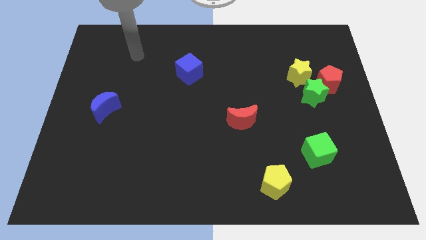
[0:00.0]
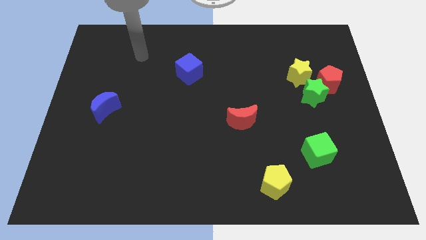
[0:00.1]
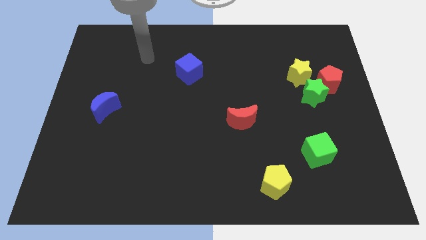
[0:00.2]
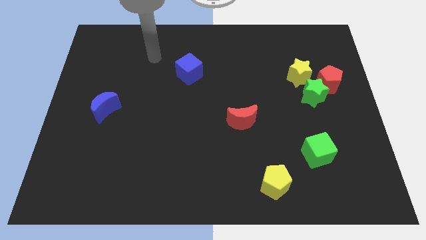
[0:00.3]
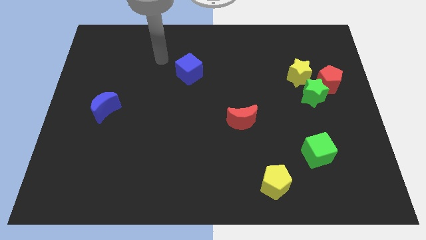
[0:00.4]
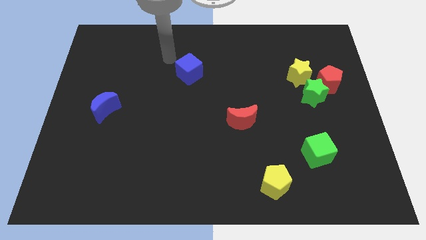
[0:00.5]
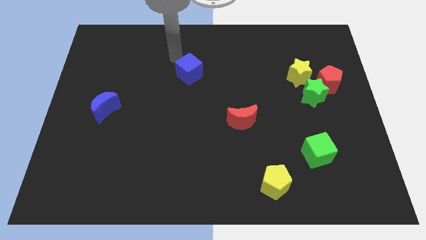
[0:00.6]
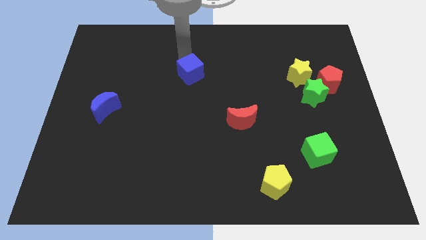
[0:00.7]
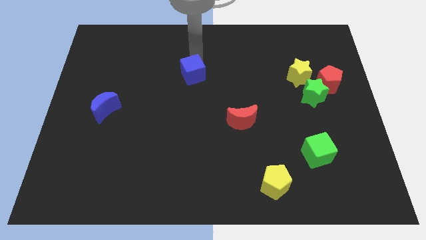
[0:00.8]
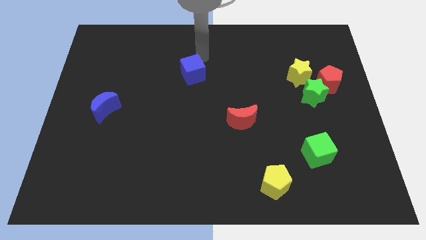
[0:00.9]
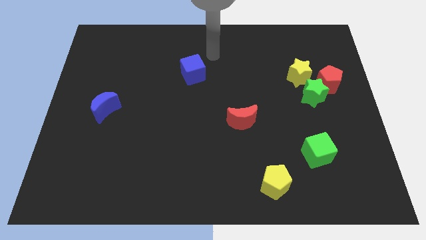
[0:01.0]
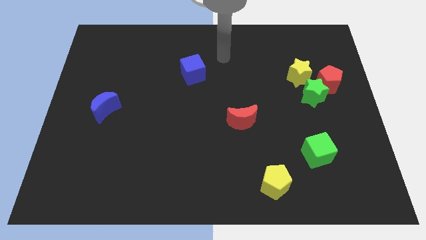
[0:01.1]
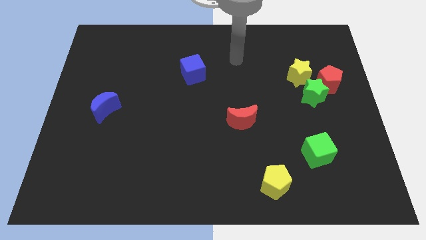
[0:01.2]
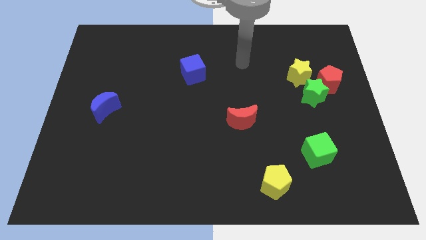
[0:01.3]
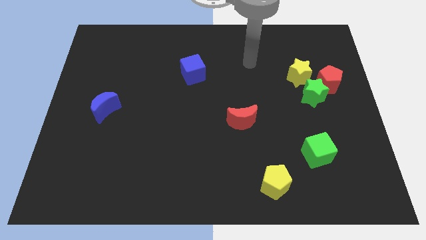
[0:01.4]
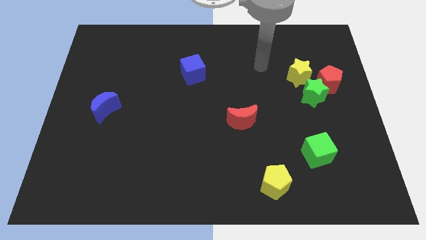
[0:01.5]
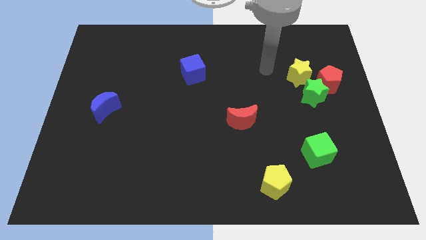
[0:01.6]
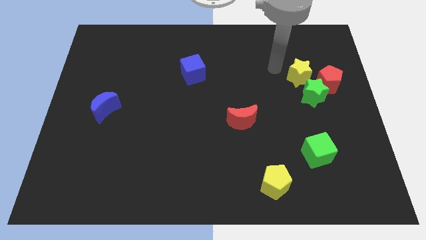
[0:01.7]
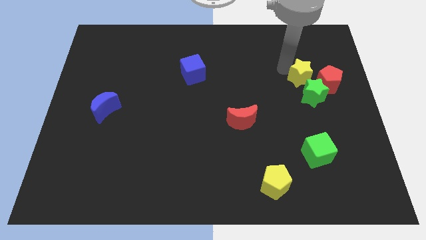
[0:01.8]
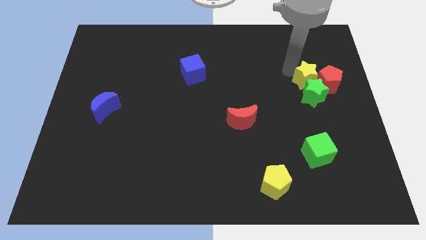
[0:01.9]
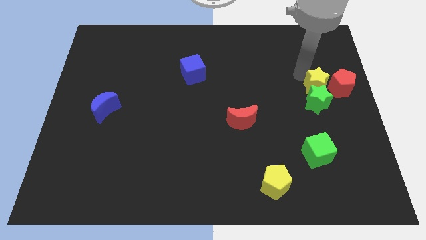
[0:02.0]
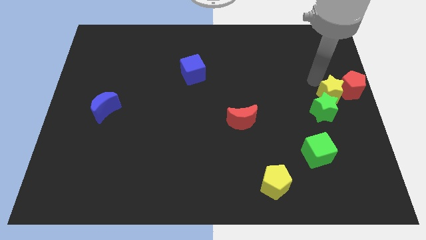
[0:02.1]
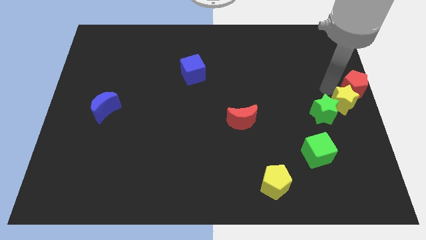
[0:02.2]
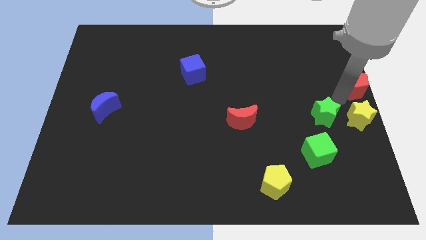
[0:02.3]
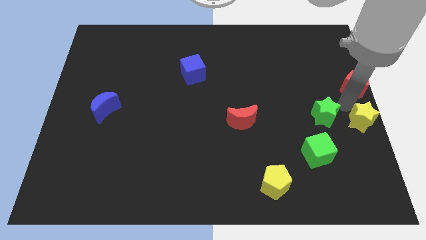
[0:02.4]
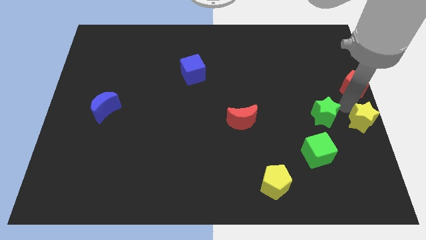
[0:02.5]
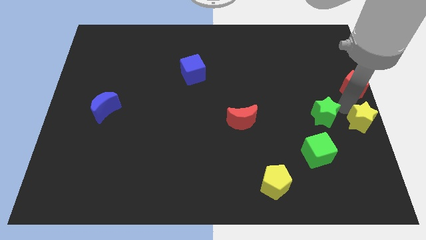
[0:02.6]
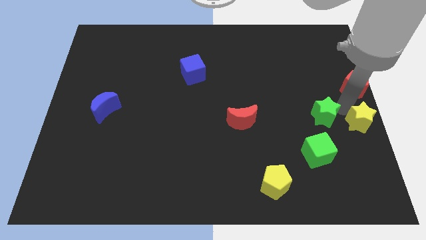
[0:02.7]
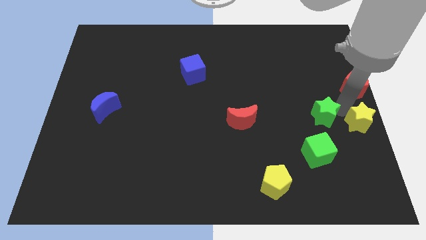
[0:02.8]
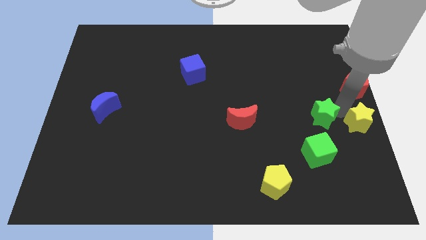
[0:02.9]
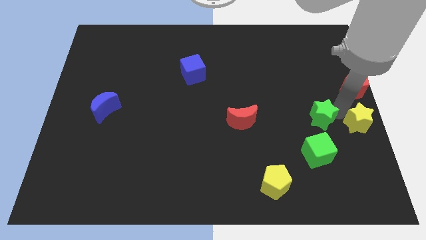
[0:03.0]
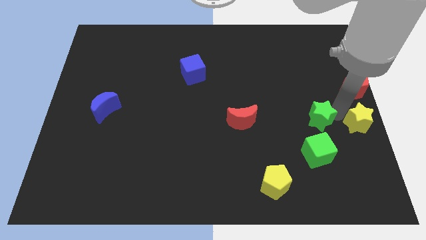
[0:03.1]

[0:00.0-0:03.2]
move the green star away from the red pentagon and yellow star

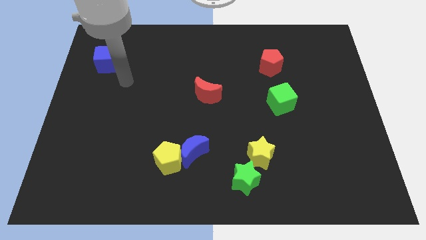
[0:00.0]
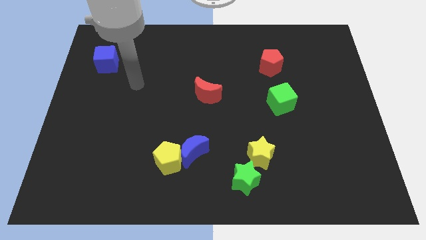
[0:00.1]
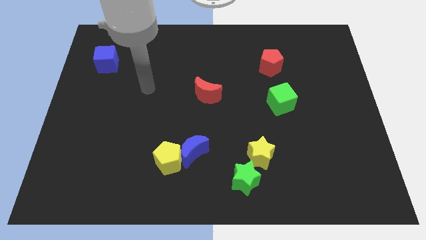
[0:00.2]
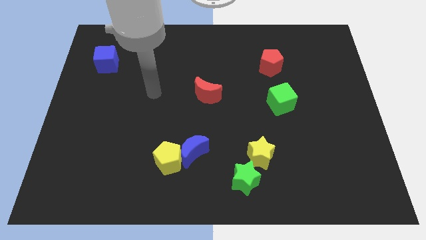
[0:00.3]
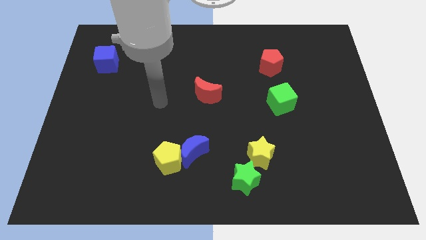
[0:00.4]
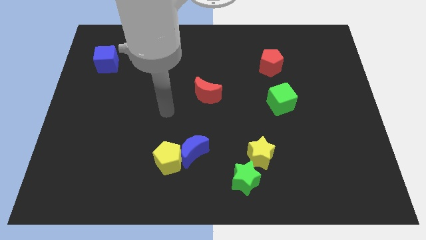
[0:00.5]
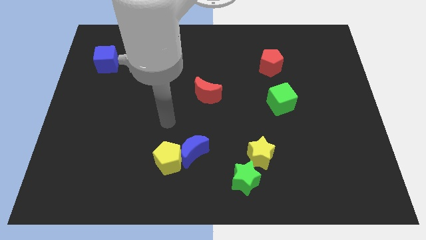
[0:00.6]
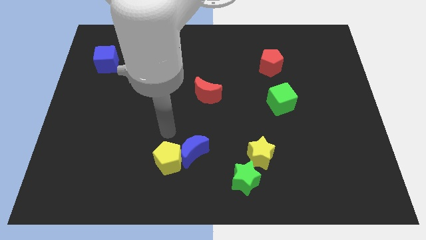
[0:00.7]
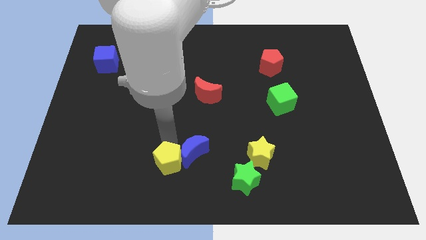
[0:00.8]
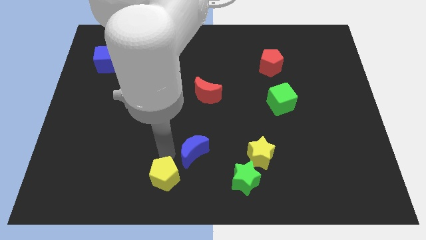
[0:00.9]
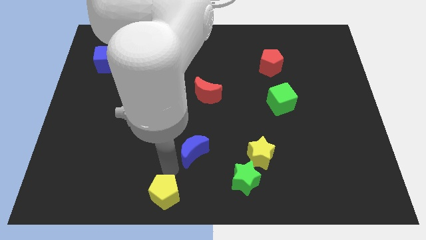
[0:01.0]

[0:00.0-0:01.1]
pull the blue moon apart from the yellow pentagon

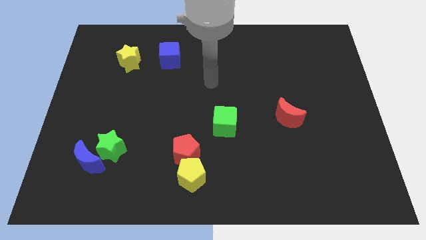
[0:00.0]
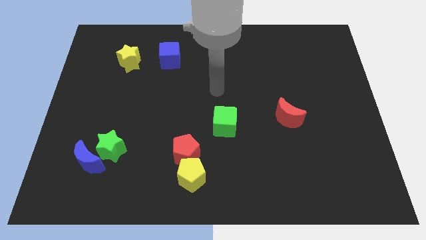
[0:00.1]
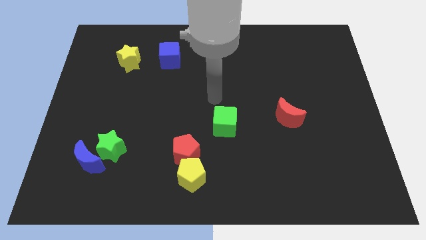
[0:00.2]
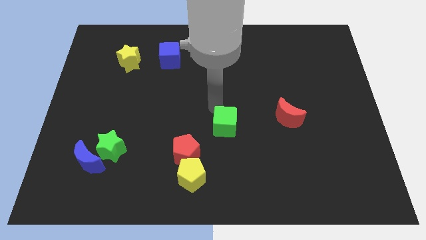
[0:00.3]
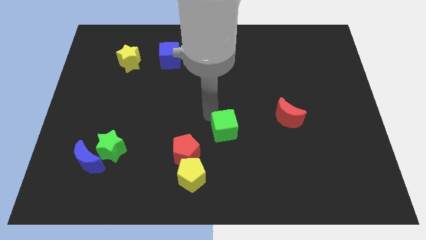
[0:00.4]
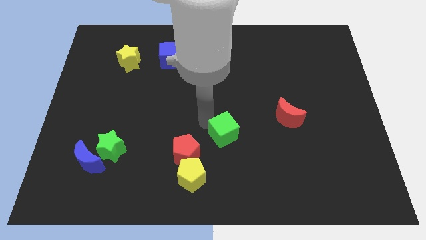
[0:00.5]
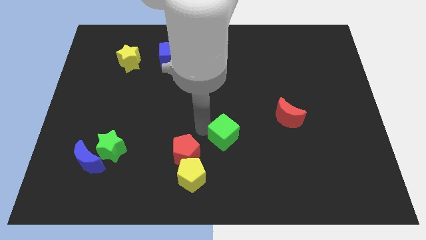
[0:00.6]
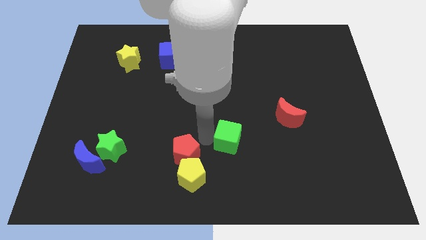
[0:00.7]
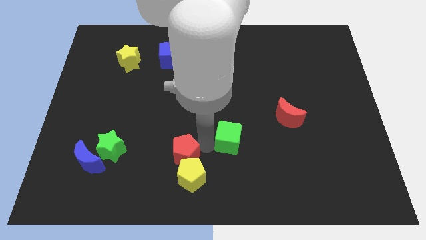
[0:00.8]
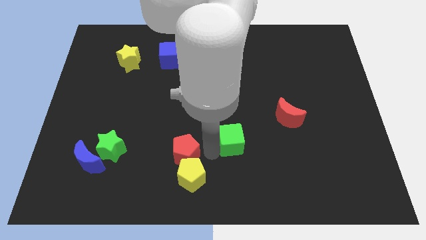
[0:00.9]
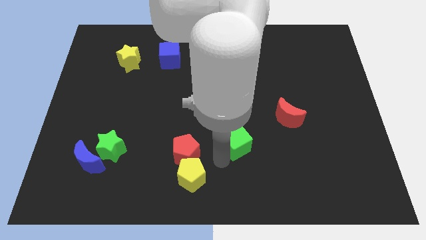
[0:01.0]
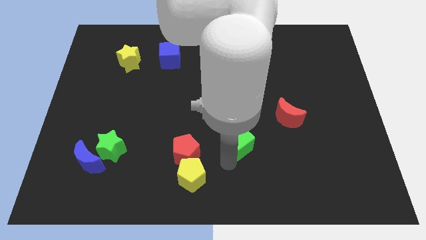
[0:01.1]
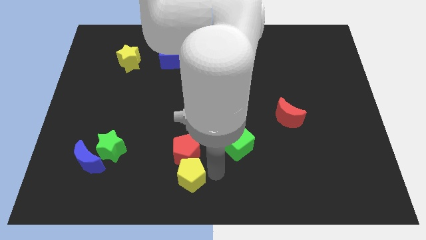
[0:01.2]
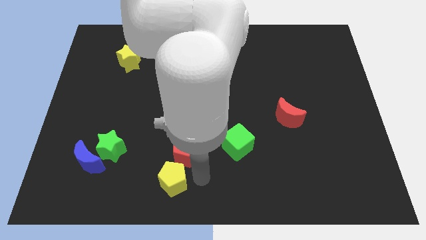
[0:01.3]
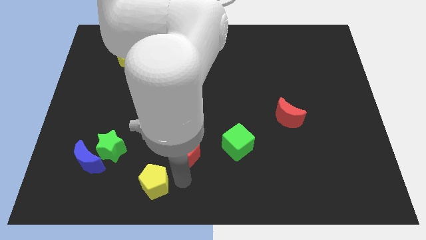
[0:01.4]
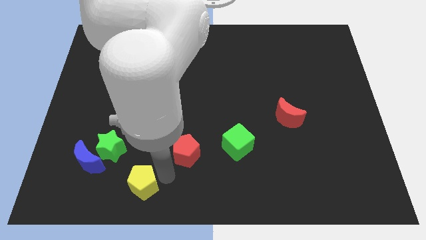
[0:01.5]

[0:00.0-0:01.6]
separate the red pentagon from the yellow pentagon

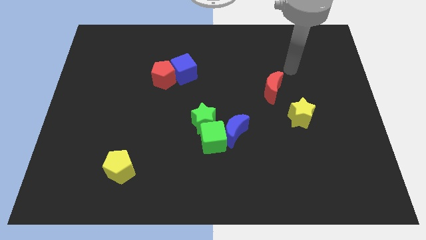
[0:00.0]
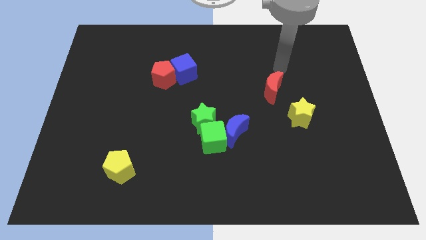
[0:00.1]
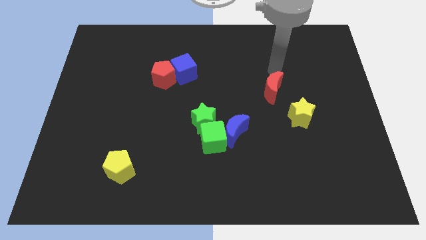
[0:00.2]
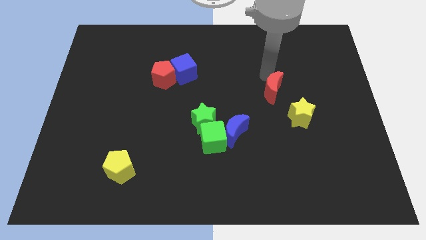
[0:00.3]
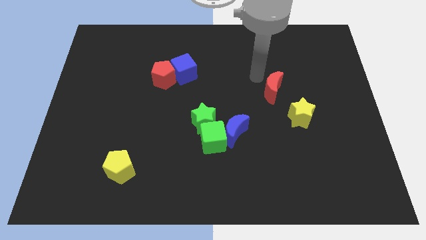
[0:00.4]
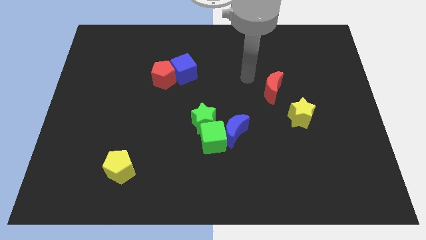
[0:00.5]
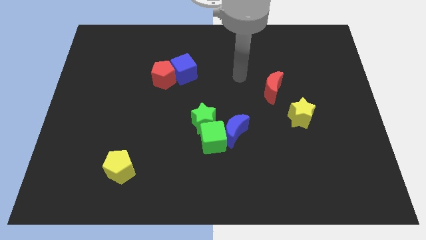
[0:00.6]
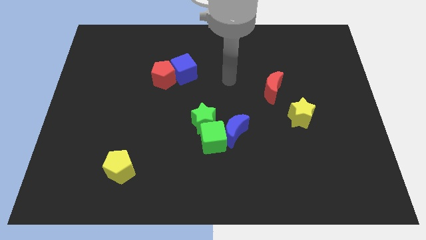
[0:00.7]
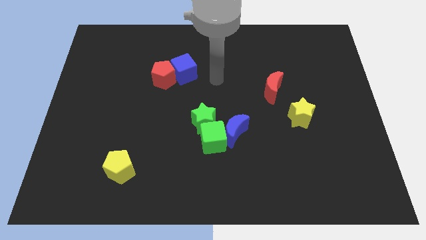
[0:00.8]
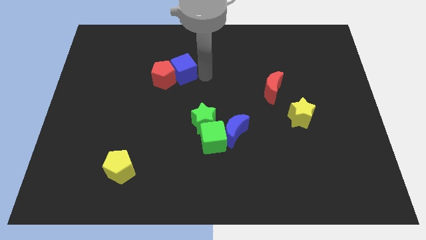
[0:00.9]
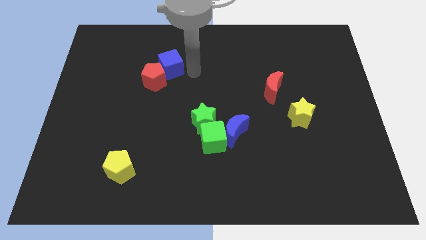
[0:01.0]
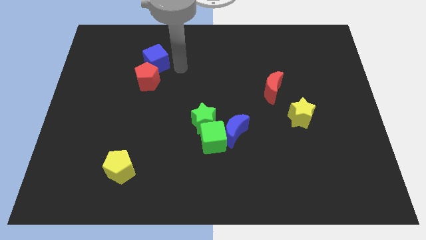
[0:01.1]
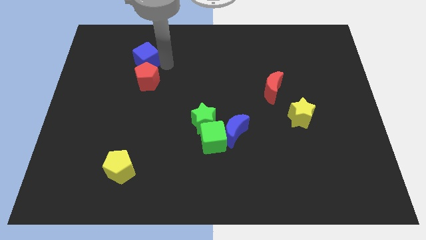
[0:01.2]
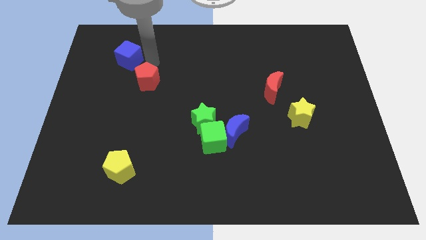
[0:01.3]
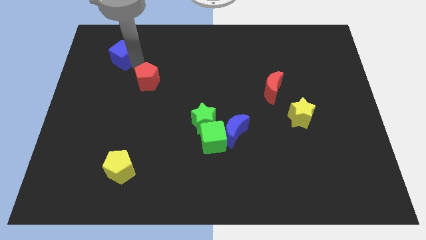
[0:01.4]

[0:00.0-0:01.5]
move the red pentagon away from the blue cube

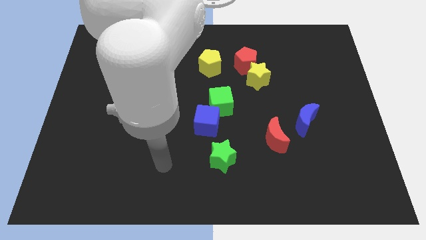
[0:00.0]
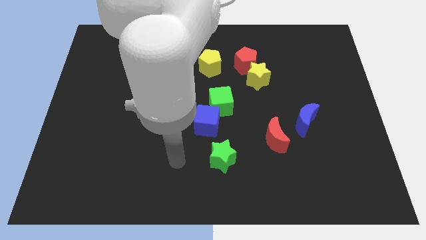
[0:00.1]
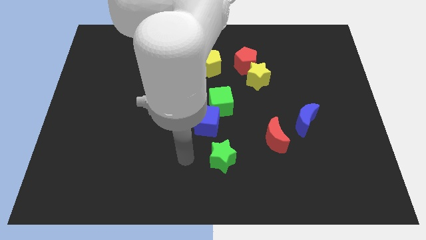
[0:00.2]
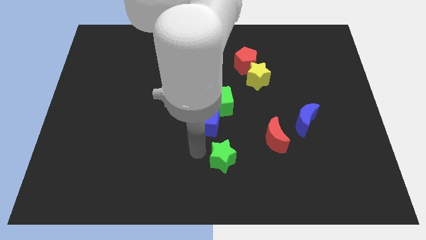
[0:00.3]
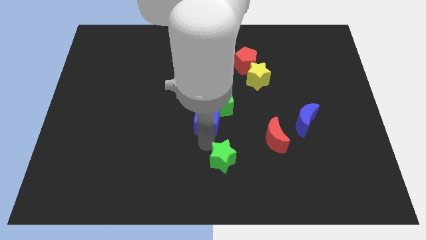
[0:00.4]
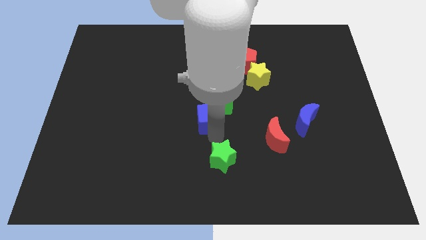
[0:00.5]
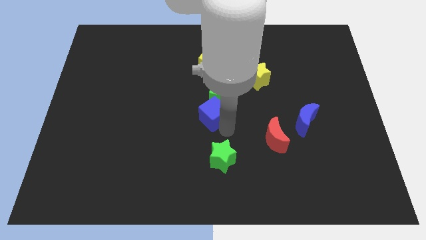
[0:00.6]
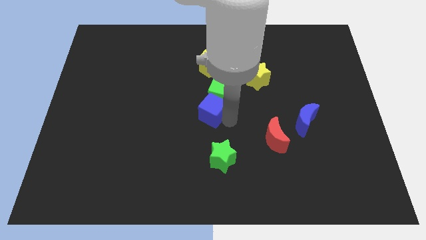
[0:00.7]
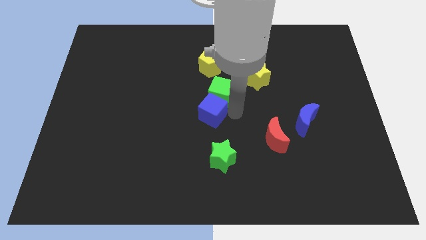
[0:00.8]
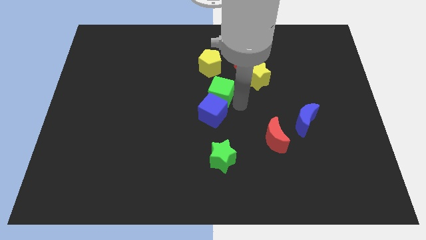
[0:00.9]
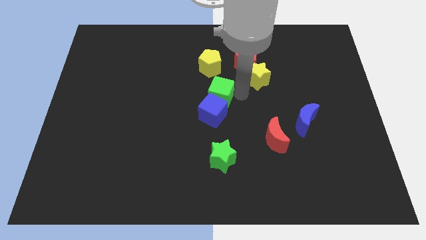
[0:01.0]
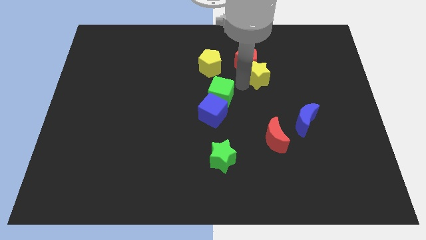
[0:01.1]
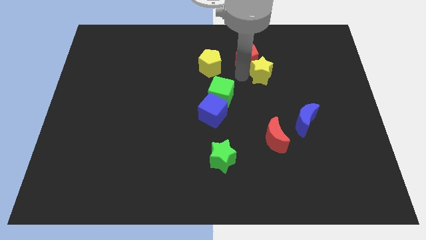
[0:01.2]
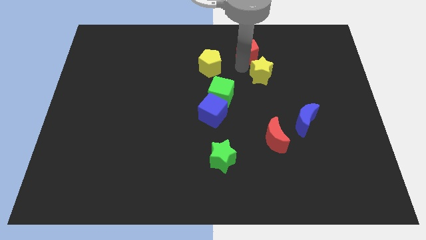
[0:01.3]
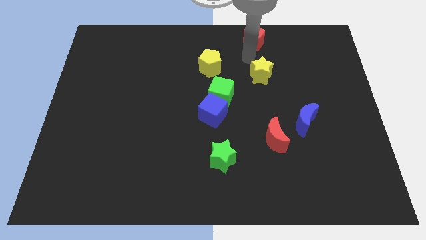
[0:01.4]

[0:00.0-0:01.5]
move the yellow star away from the red pentagon

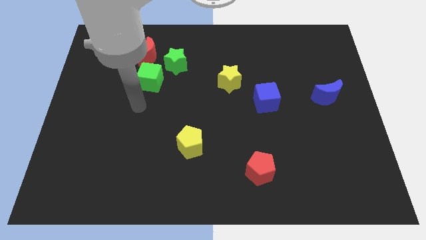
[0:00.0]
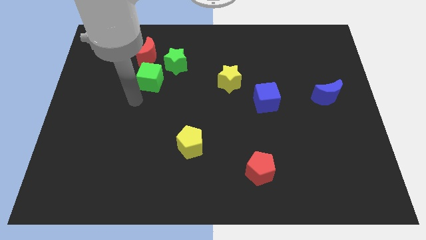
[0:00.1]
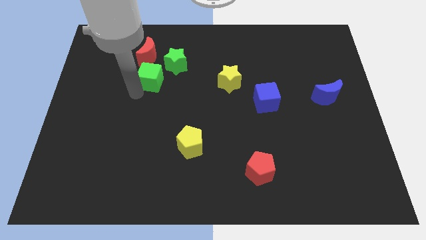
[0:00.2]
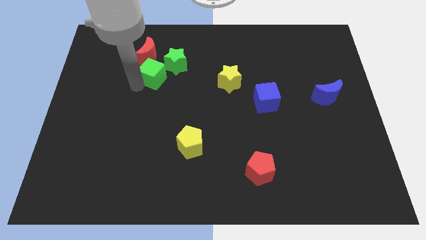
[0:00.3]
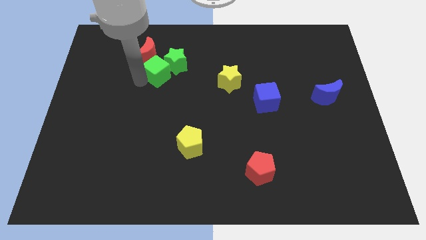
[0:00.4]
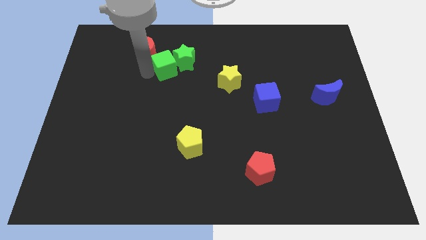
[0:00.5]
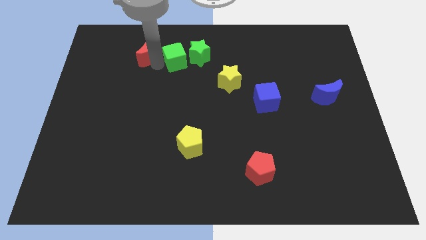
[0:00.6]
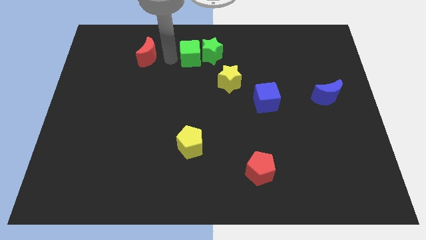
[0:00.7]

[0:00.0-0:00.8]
separate the green star from the green cube and red moon
